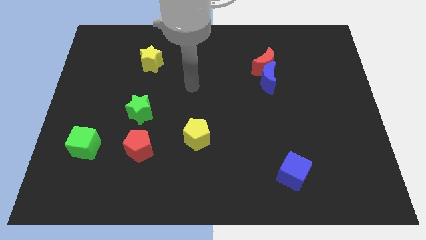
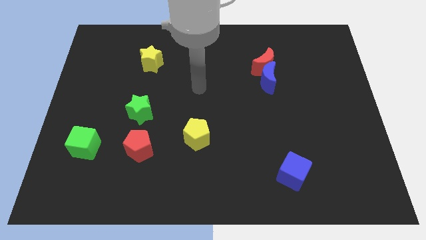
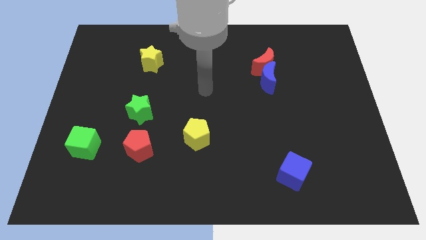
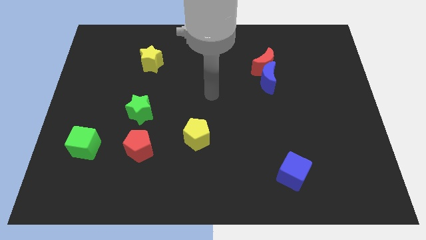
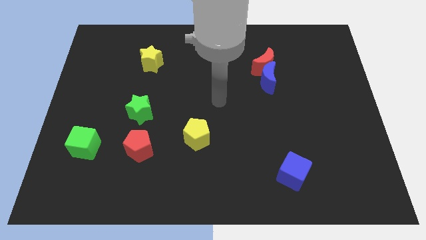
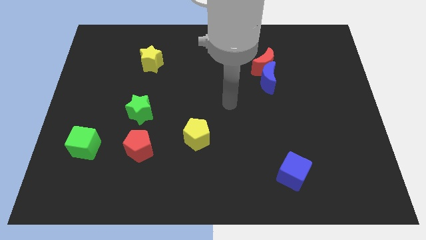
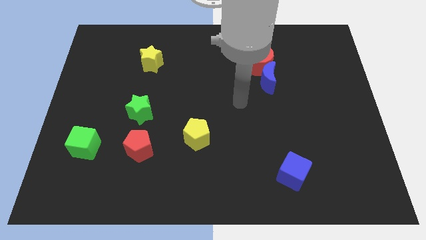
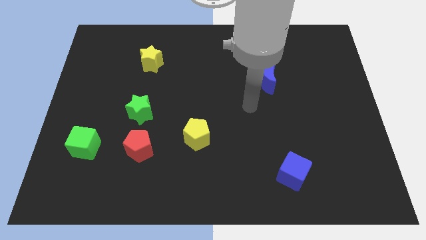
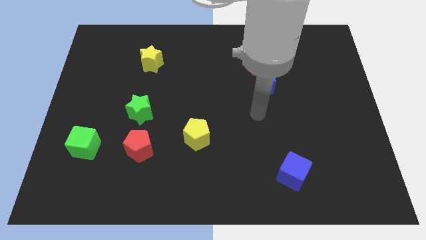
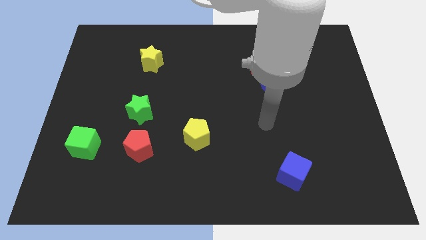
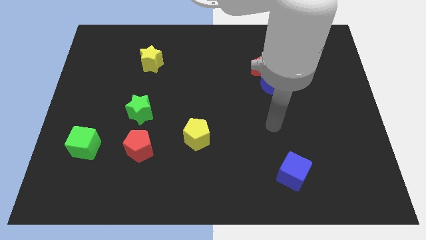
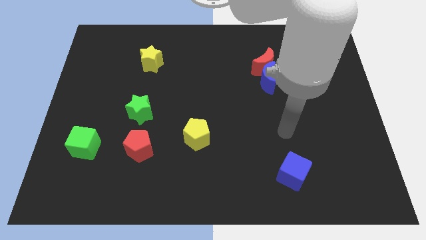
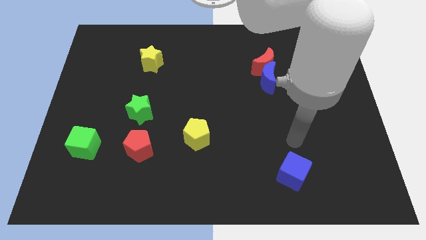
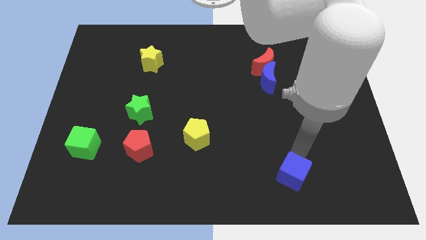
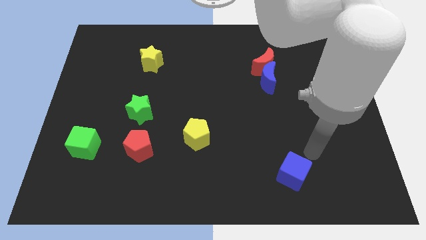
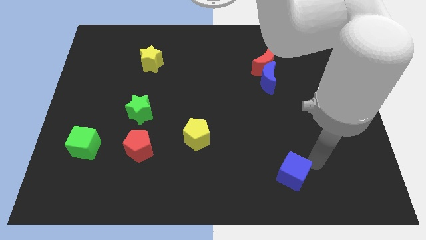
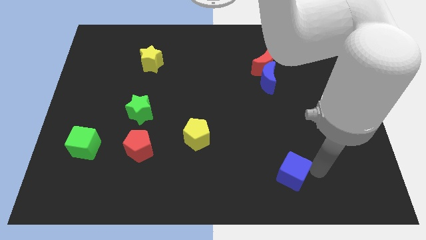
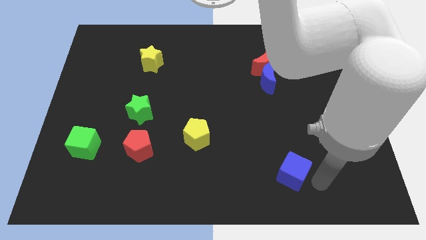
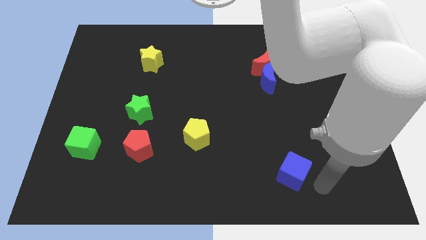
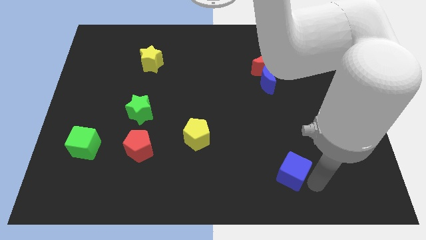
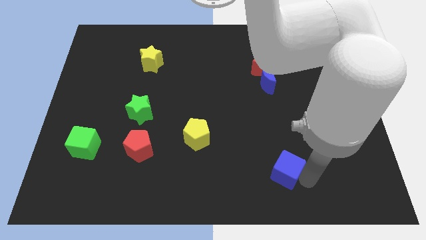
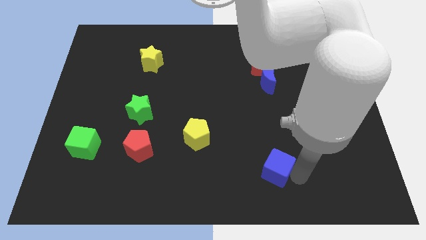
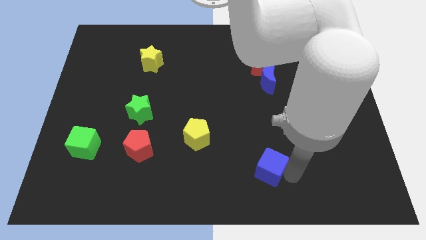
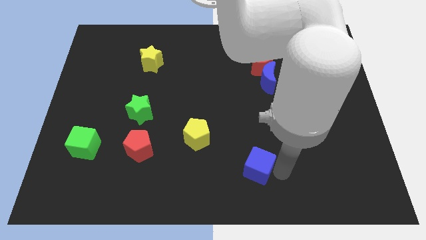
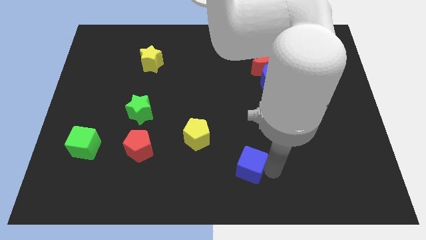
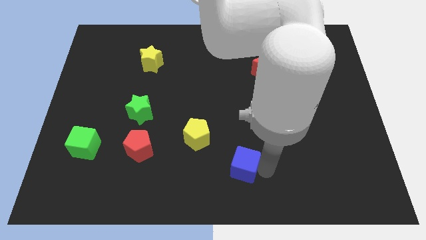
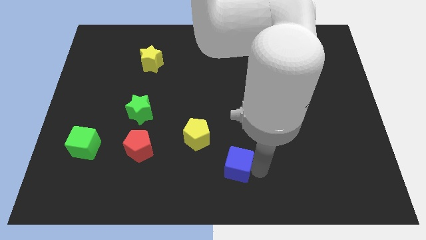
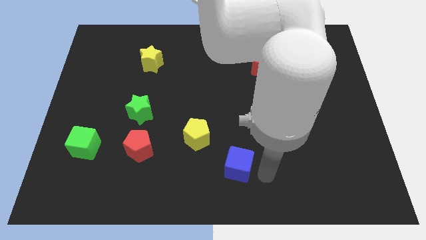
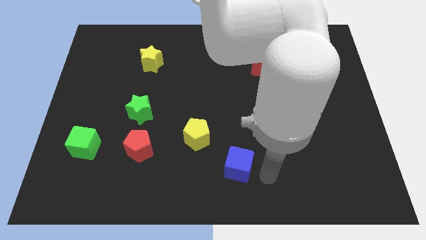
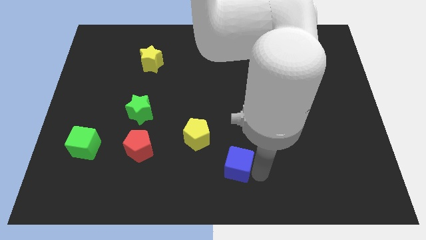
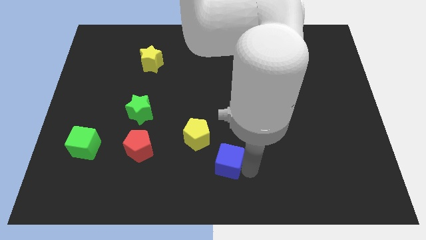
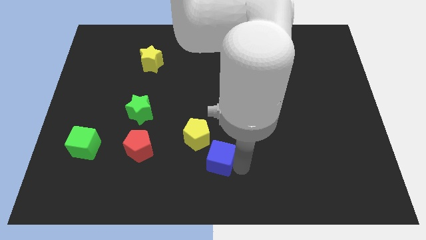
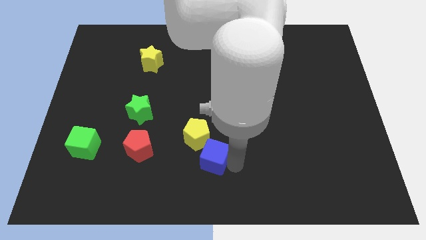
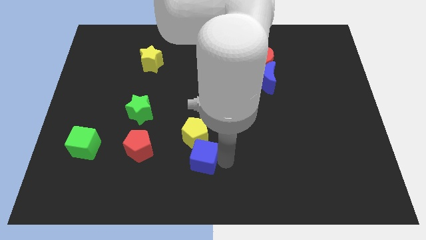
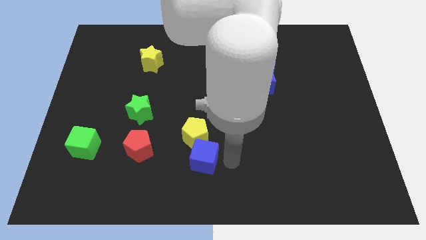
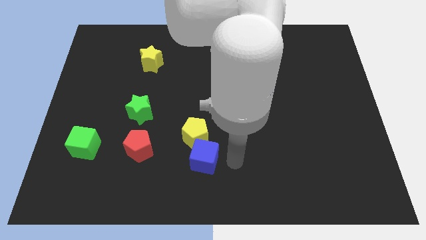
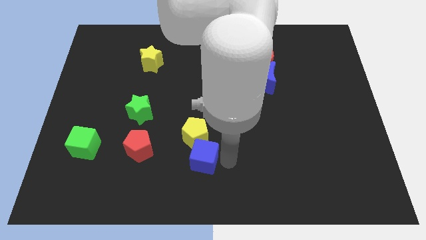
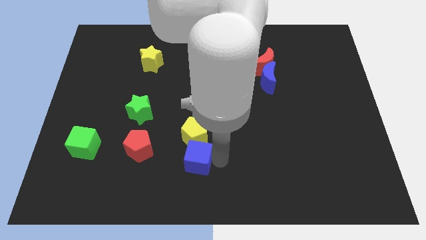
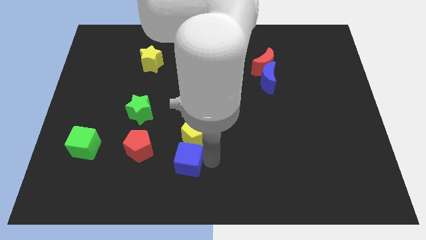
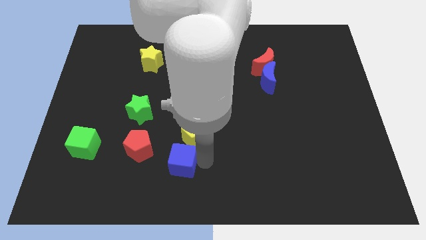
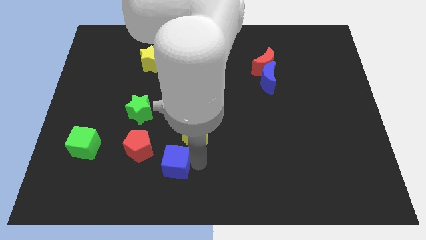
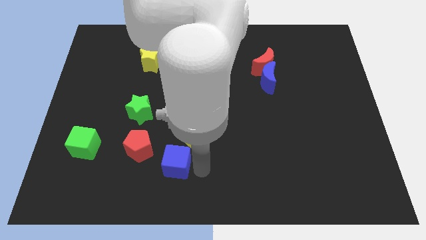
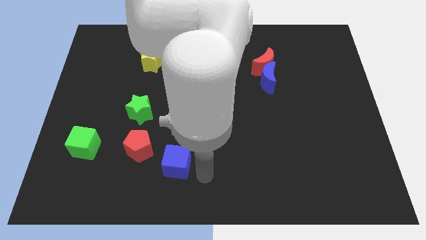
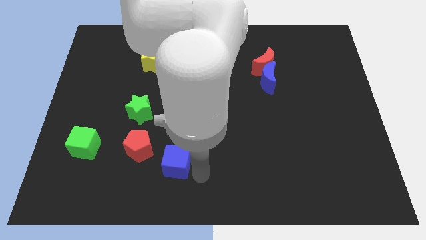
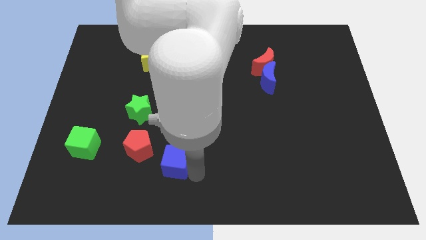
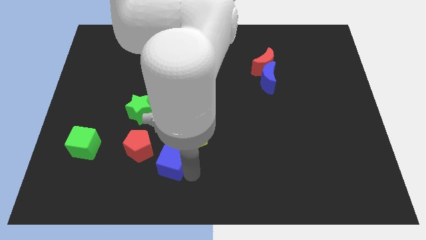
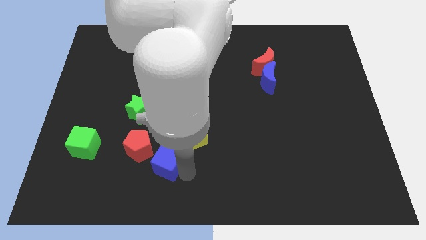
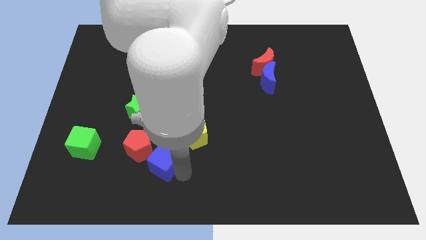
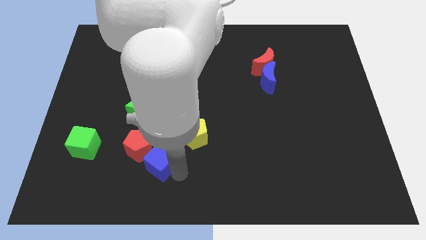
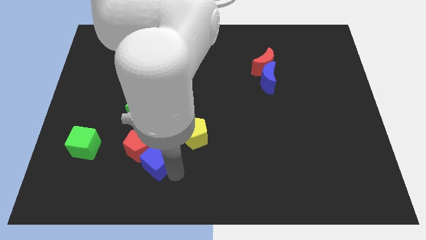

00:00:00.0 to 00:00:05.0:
slide the blue cube towards the red pentagon

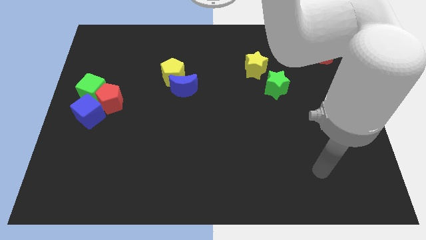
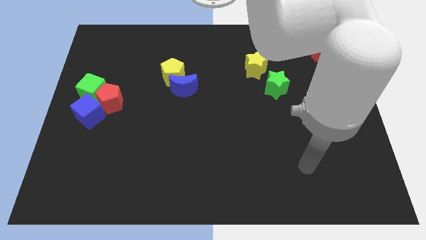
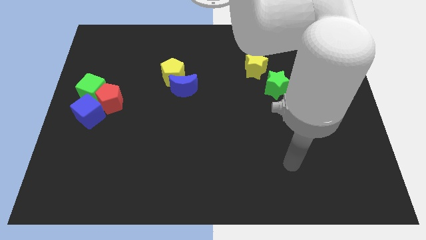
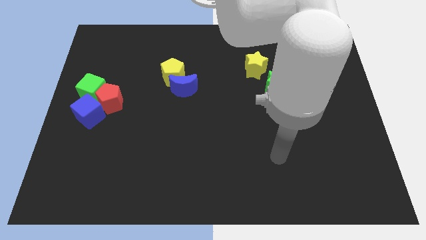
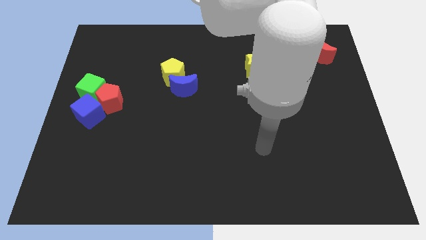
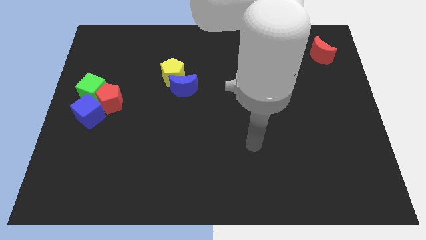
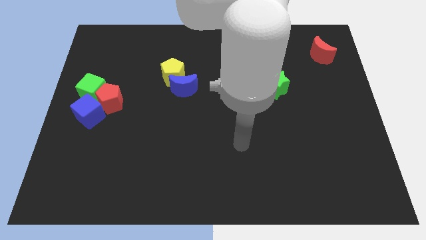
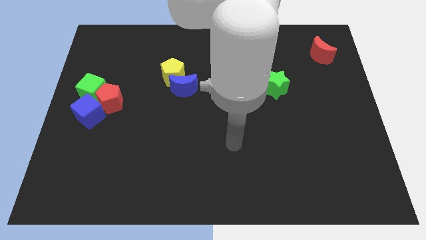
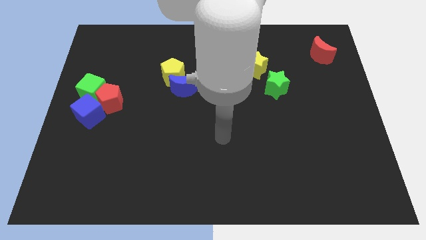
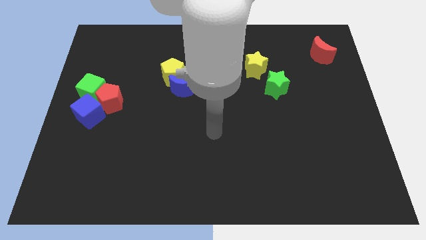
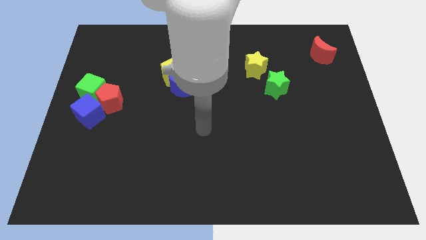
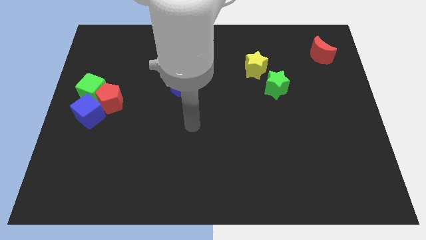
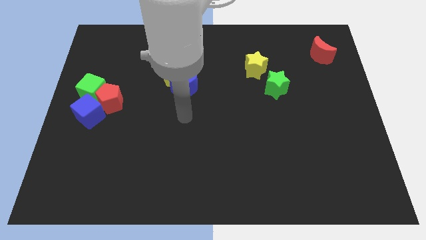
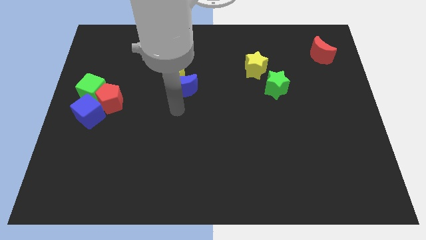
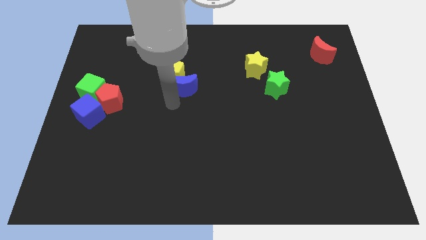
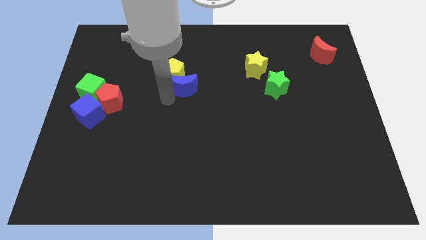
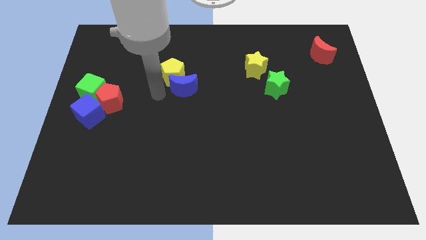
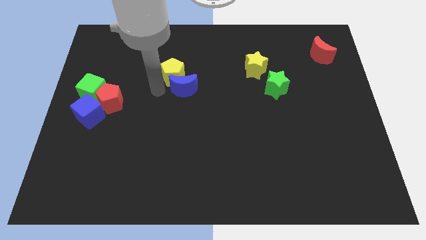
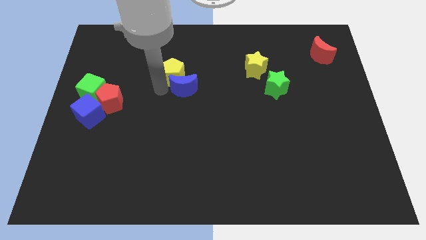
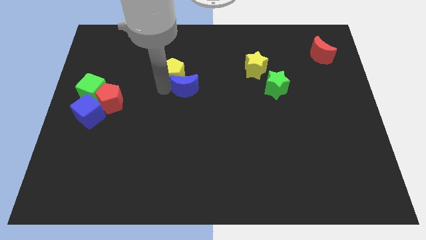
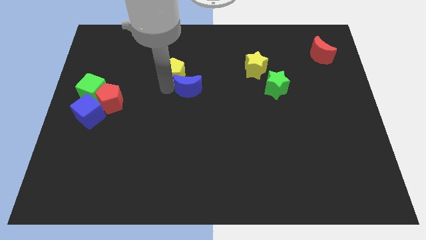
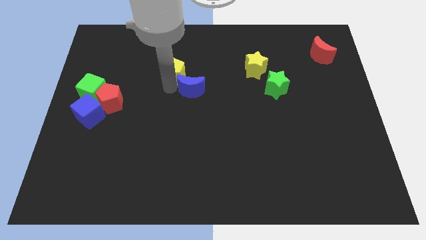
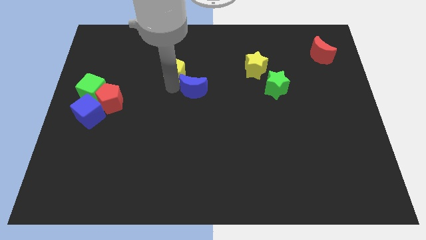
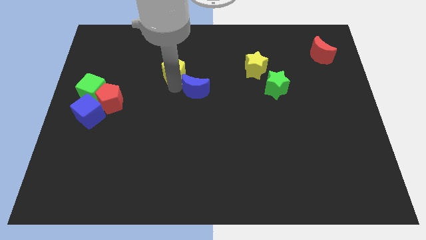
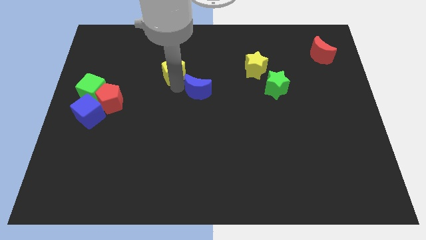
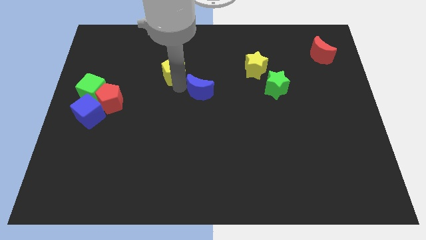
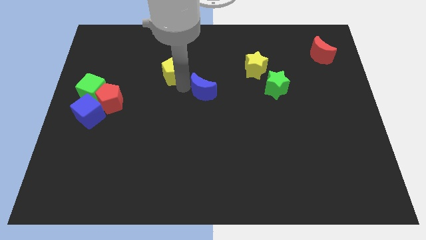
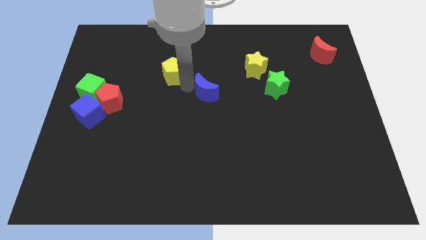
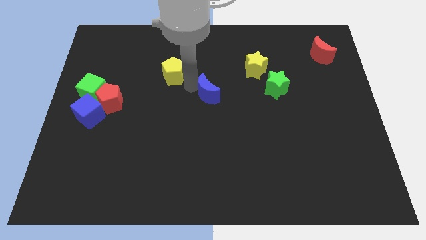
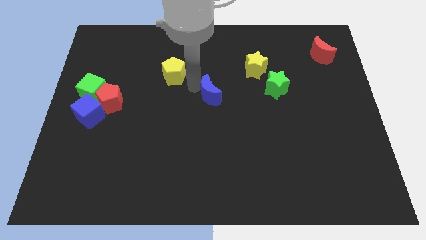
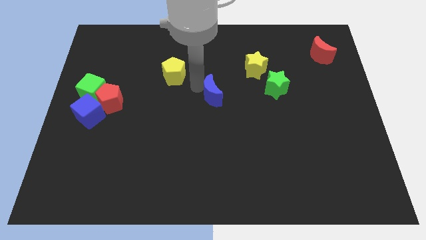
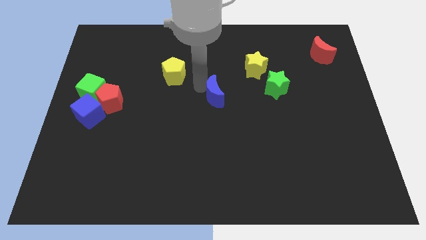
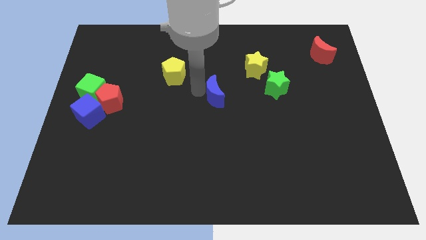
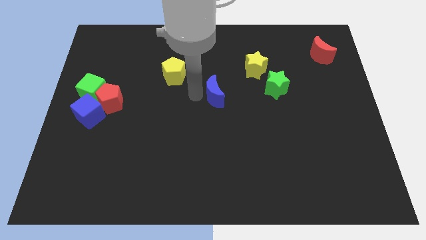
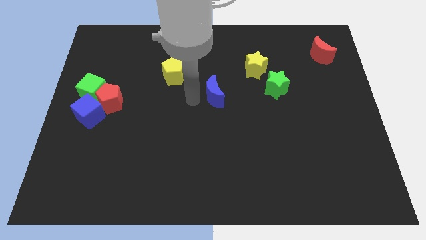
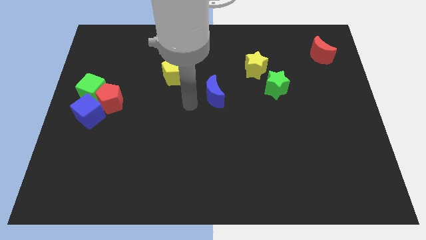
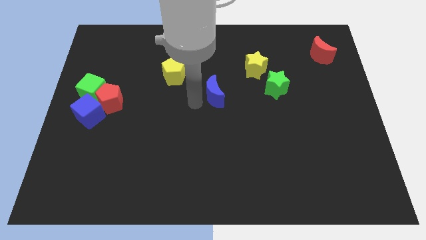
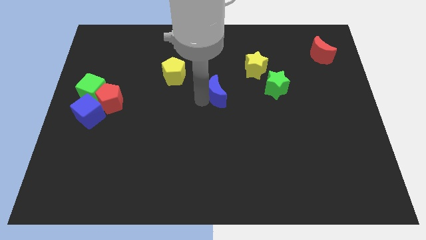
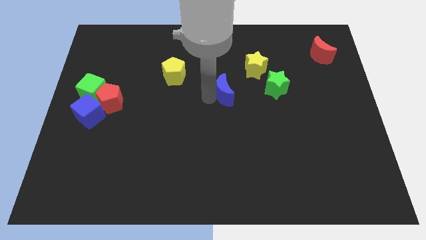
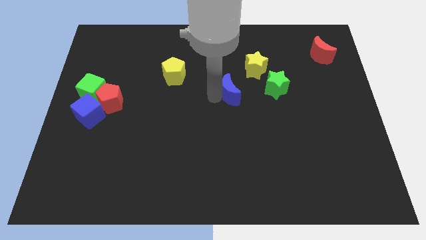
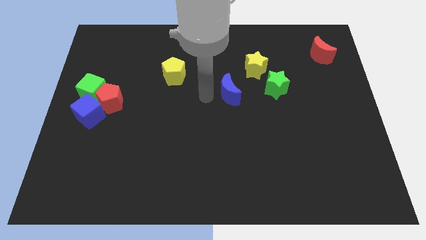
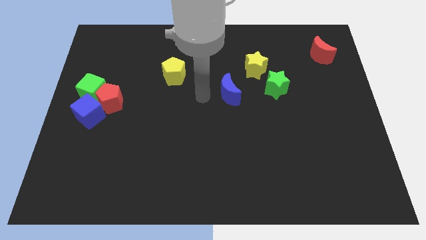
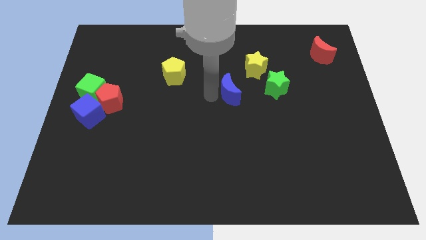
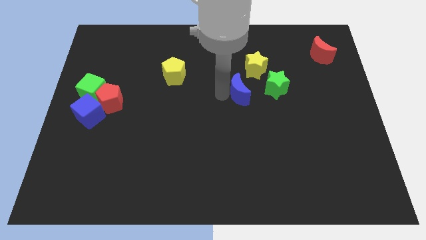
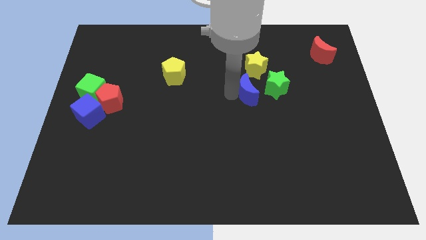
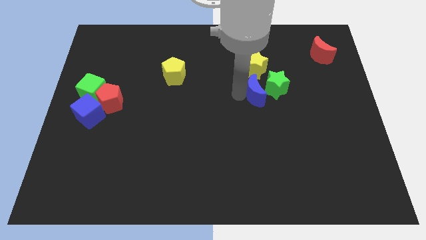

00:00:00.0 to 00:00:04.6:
push the blue moon to the green star
